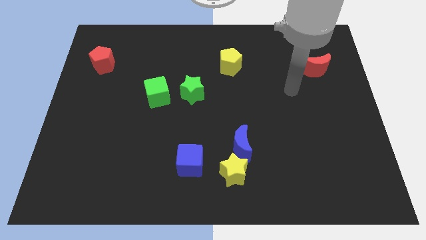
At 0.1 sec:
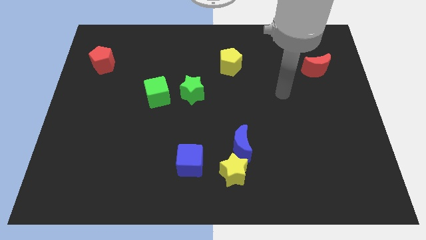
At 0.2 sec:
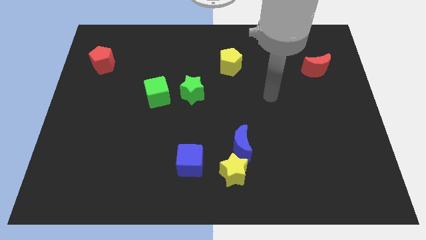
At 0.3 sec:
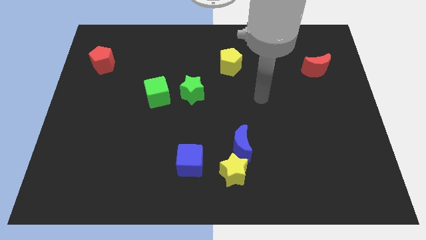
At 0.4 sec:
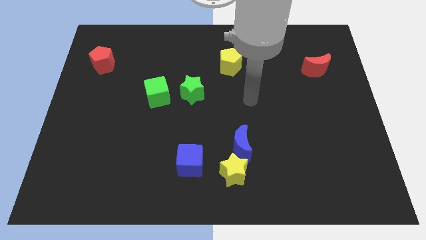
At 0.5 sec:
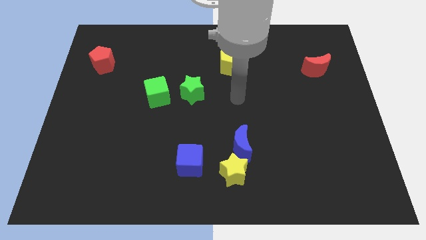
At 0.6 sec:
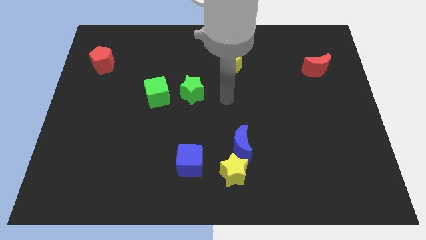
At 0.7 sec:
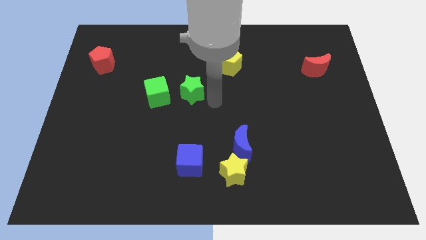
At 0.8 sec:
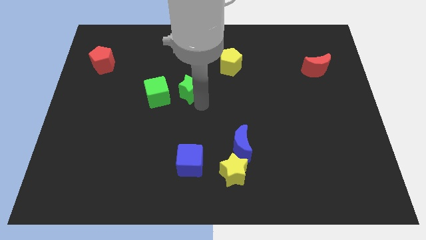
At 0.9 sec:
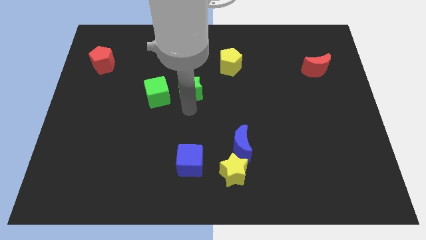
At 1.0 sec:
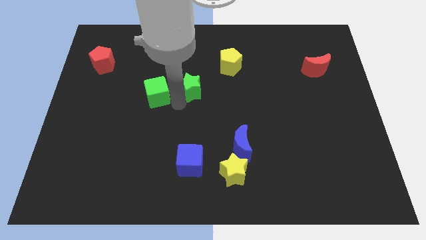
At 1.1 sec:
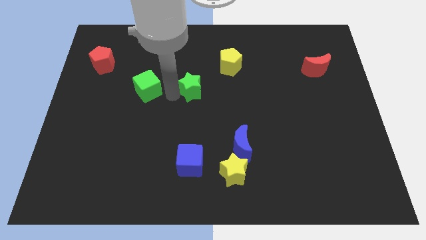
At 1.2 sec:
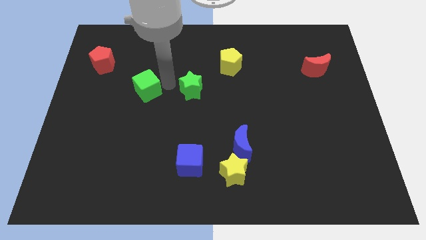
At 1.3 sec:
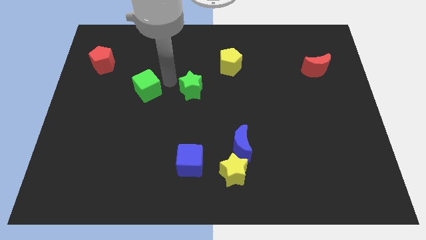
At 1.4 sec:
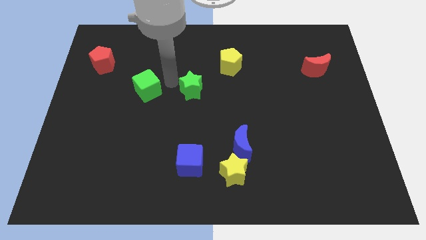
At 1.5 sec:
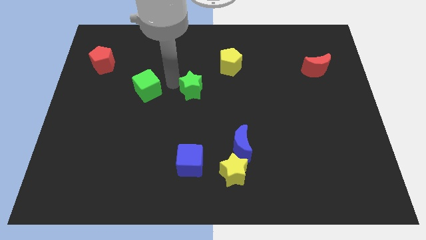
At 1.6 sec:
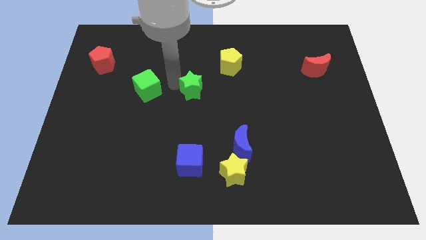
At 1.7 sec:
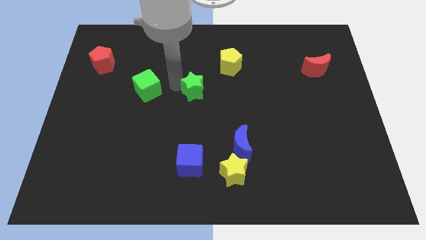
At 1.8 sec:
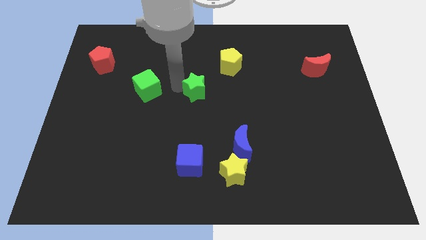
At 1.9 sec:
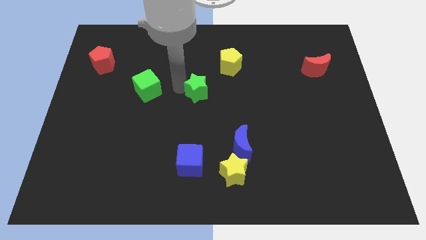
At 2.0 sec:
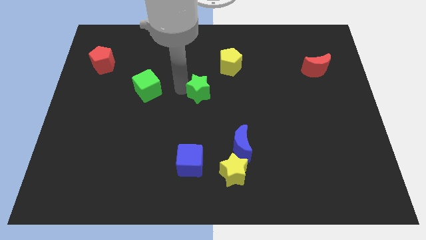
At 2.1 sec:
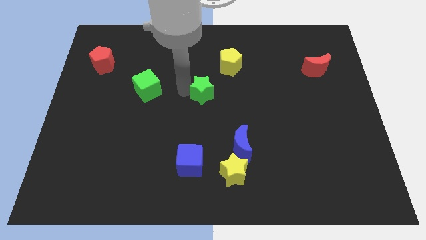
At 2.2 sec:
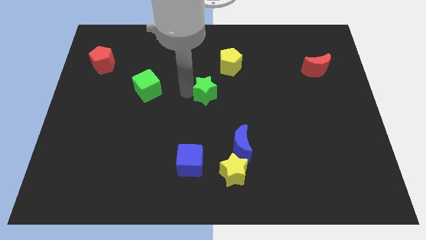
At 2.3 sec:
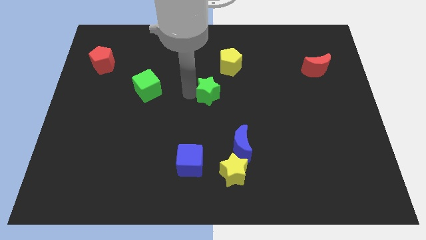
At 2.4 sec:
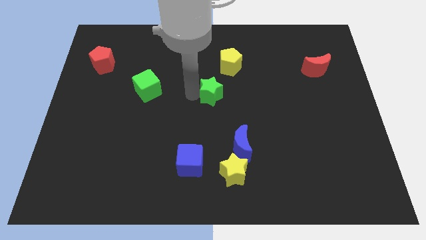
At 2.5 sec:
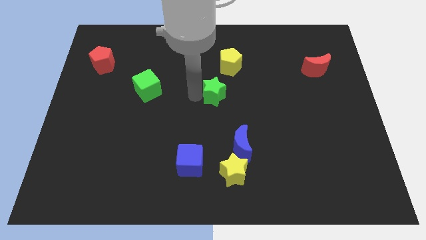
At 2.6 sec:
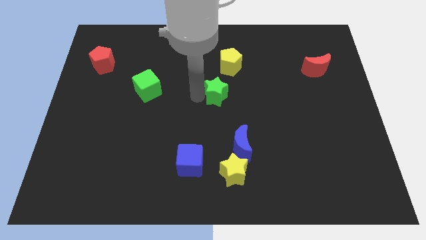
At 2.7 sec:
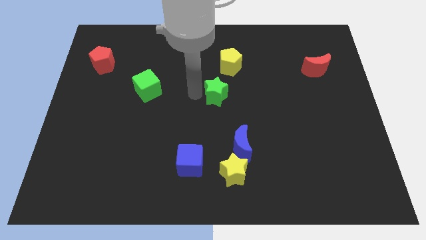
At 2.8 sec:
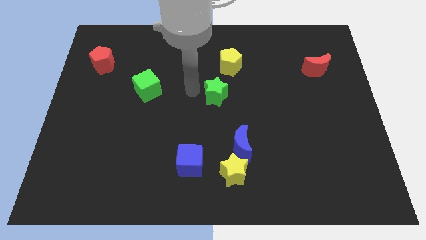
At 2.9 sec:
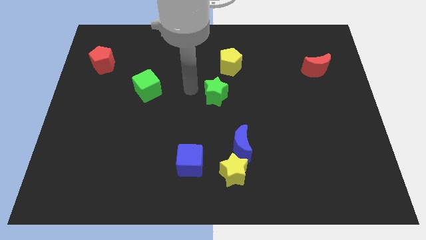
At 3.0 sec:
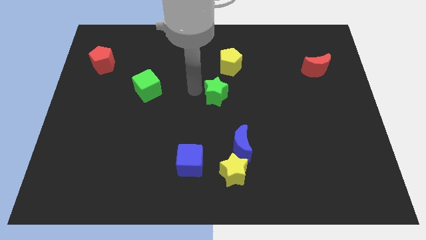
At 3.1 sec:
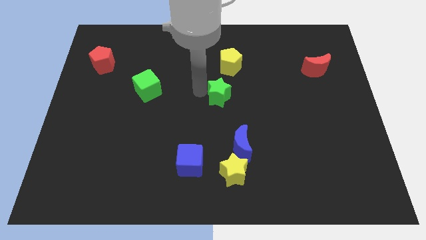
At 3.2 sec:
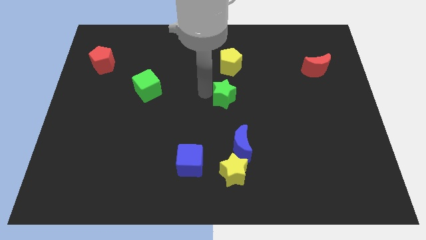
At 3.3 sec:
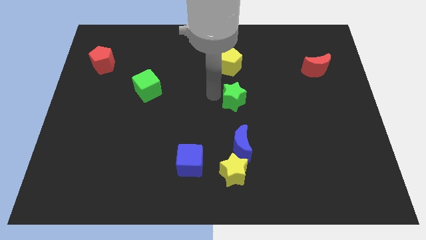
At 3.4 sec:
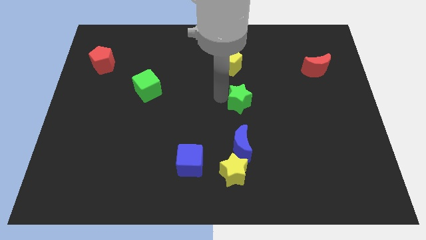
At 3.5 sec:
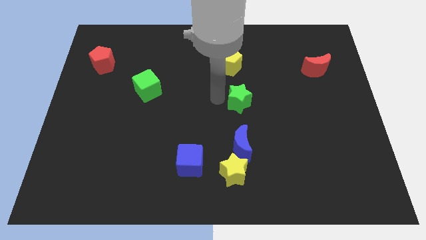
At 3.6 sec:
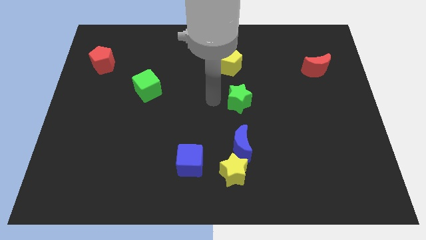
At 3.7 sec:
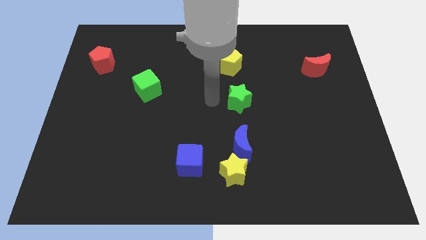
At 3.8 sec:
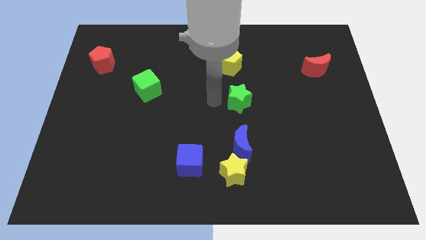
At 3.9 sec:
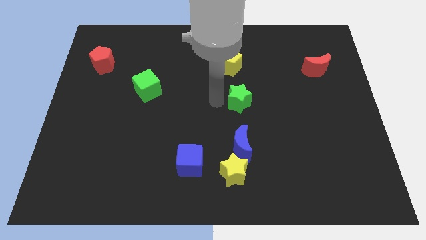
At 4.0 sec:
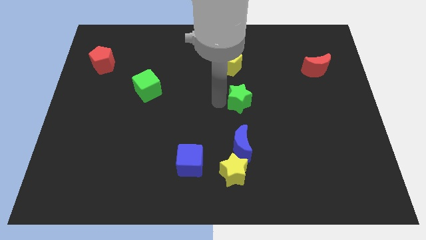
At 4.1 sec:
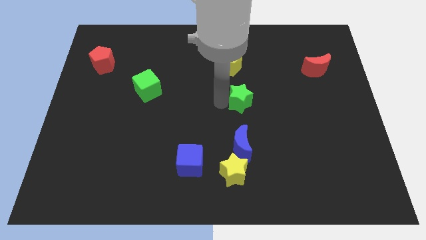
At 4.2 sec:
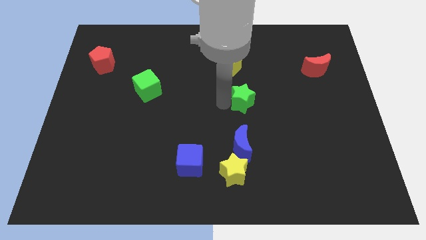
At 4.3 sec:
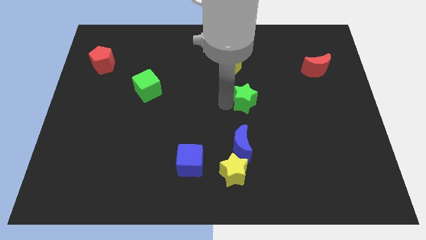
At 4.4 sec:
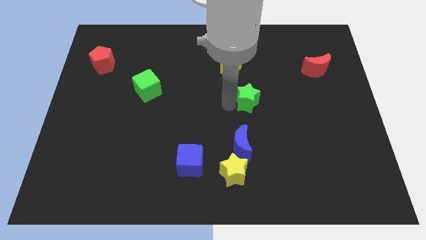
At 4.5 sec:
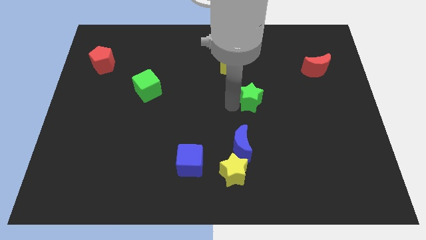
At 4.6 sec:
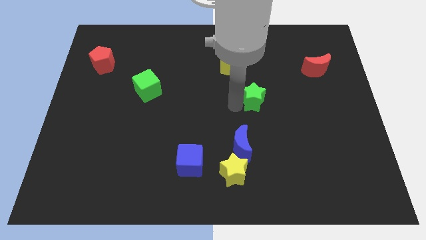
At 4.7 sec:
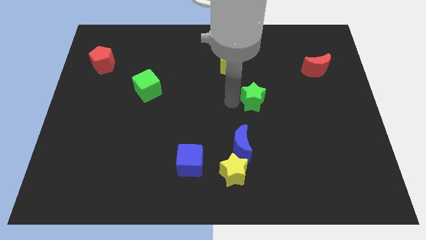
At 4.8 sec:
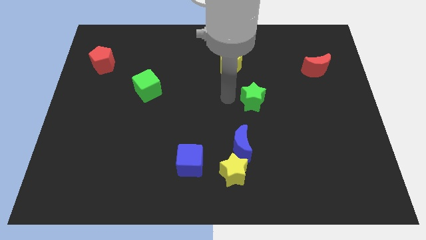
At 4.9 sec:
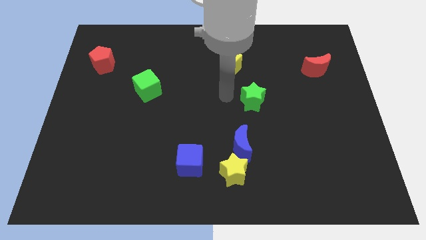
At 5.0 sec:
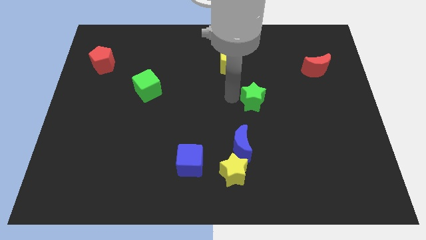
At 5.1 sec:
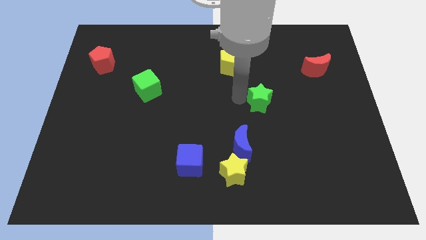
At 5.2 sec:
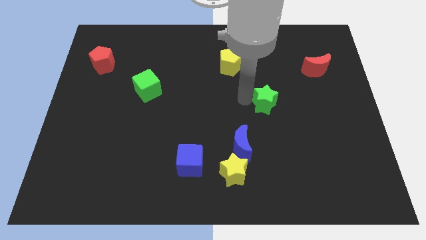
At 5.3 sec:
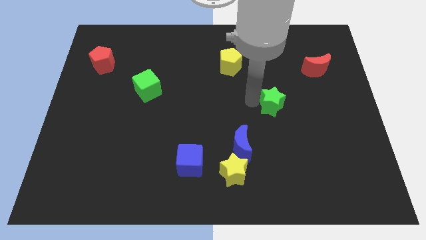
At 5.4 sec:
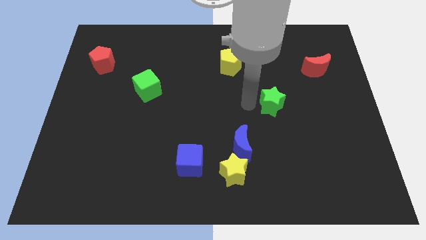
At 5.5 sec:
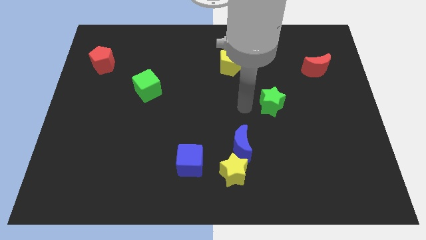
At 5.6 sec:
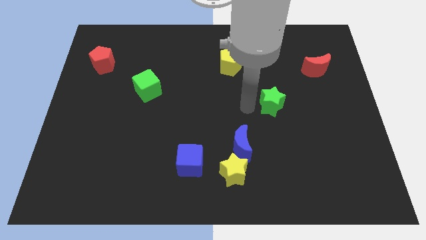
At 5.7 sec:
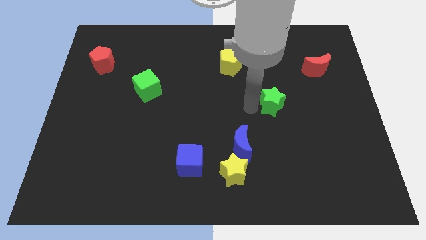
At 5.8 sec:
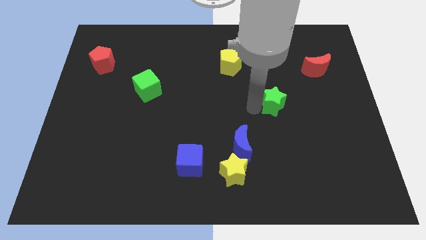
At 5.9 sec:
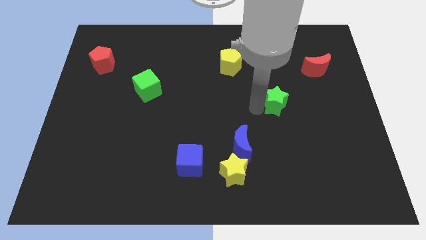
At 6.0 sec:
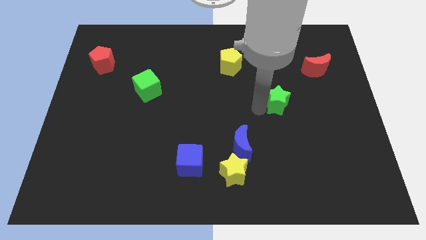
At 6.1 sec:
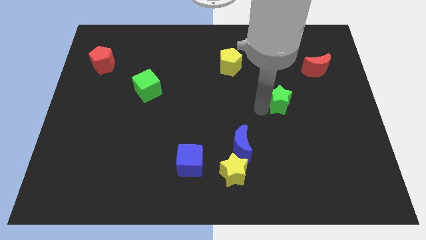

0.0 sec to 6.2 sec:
move the green star right

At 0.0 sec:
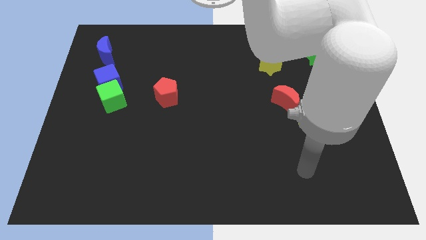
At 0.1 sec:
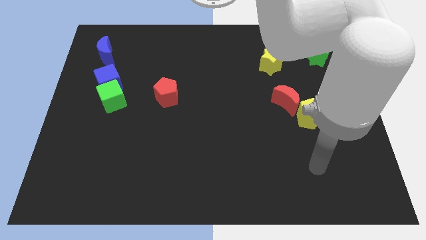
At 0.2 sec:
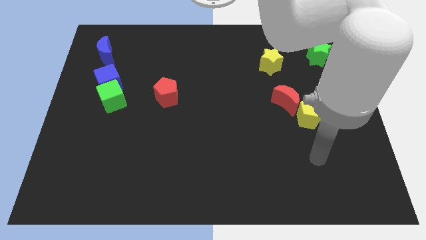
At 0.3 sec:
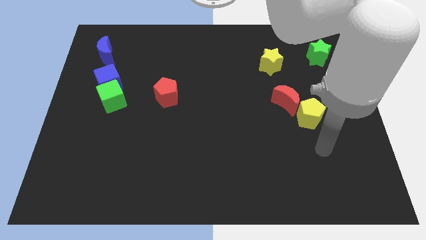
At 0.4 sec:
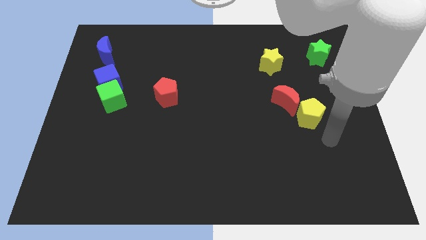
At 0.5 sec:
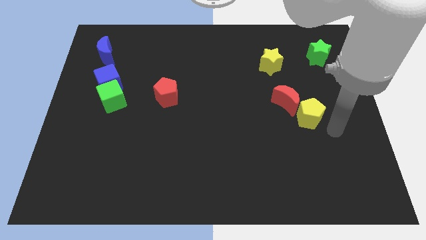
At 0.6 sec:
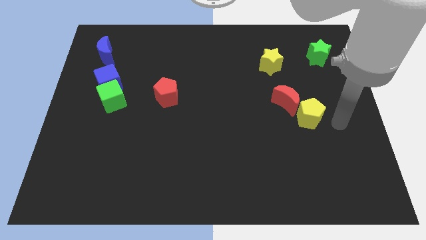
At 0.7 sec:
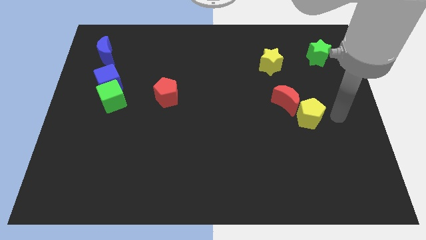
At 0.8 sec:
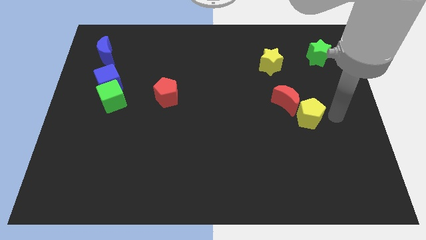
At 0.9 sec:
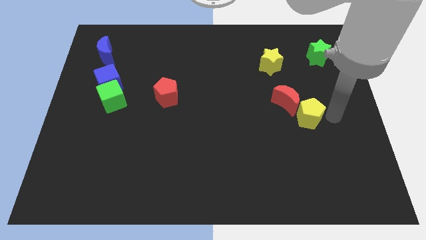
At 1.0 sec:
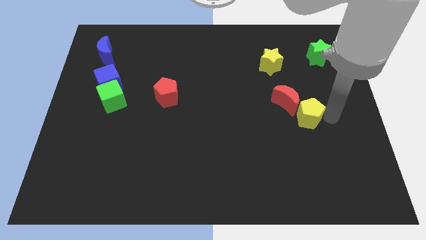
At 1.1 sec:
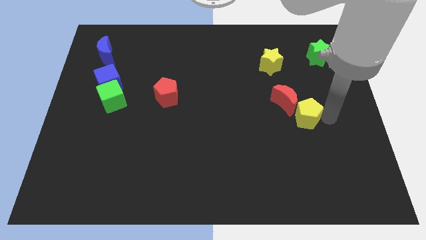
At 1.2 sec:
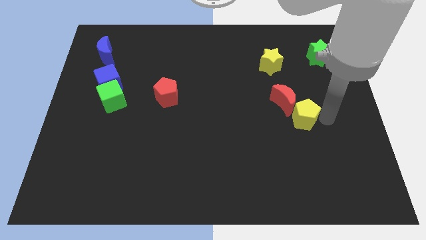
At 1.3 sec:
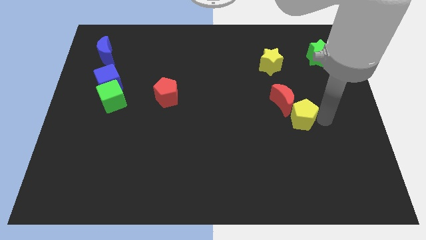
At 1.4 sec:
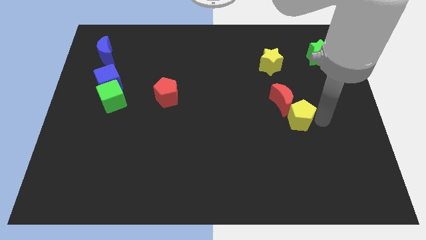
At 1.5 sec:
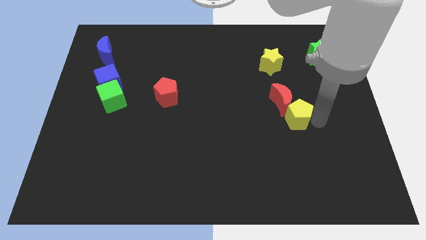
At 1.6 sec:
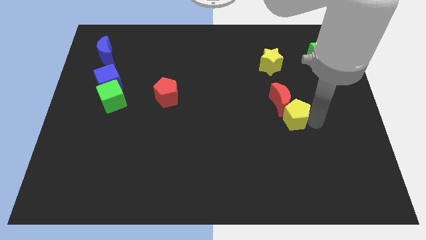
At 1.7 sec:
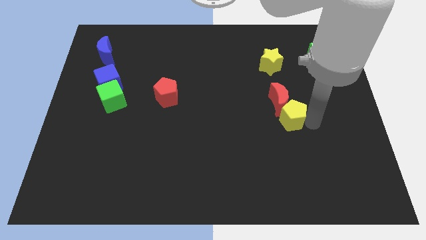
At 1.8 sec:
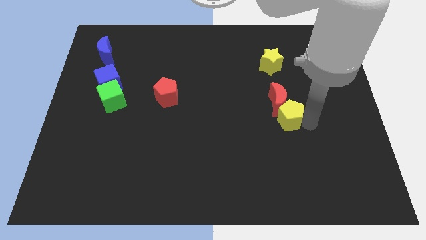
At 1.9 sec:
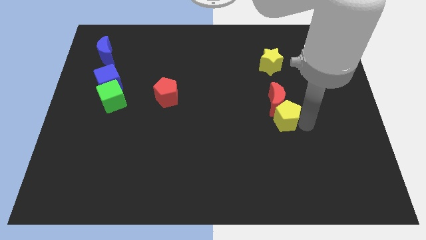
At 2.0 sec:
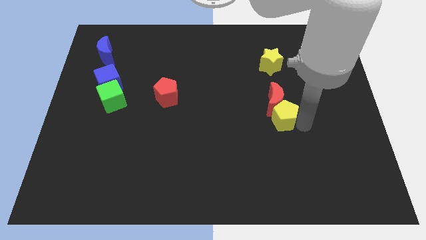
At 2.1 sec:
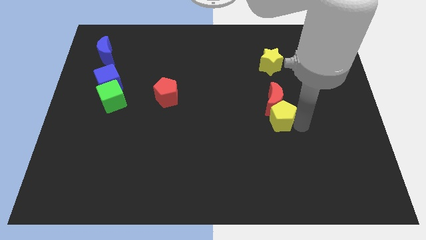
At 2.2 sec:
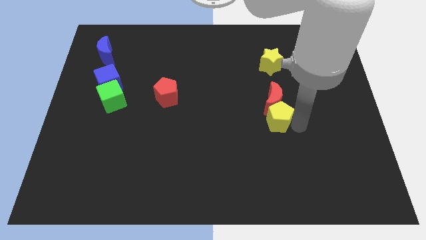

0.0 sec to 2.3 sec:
slightly slide the yellow pentagon to the left
